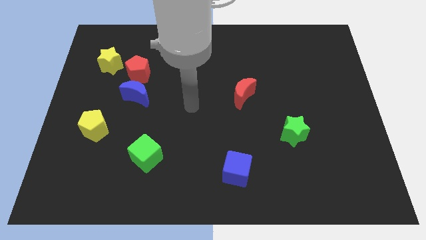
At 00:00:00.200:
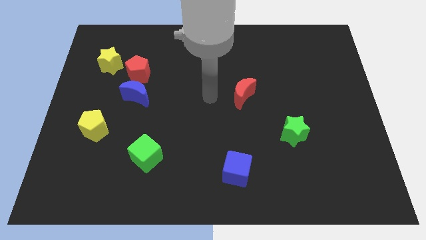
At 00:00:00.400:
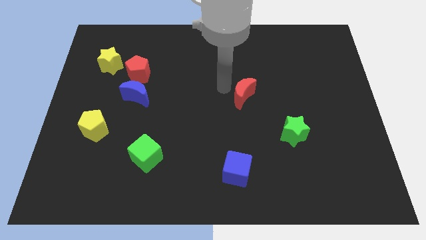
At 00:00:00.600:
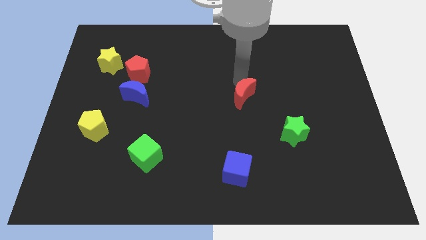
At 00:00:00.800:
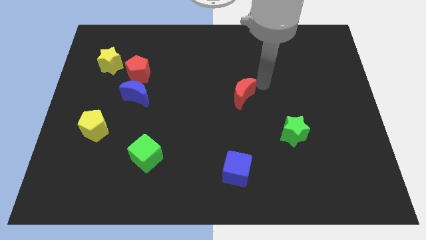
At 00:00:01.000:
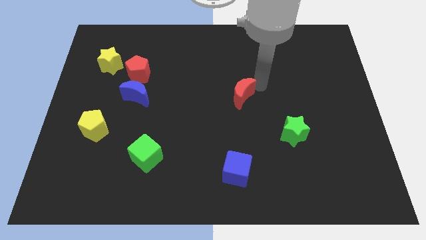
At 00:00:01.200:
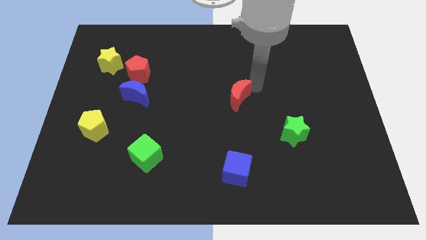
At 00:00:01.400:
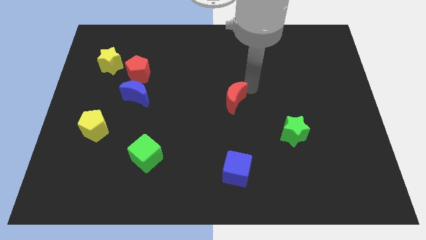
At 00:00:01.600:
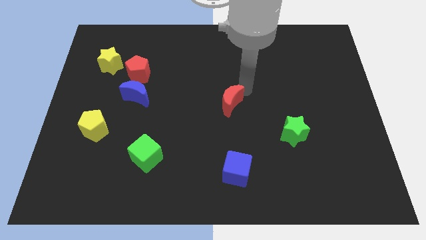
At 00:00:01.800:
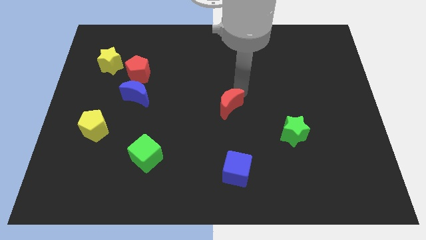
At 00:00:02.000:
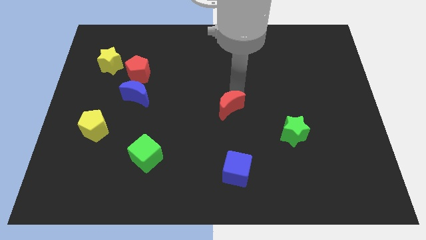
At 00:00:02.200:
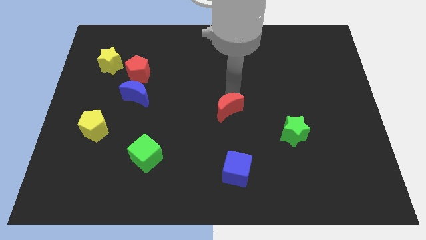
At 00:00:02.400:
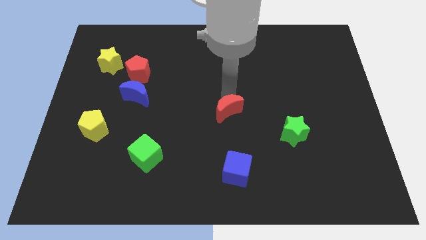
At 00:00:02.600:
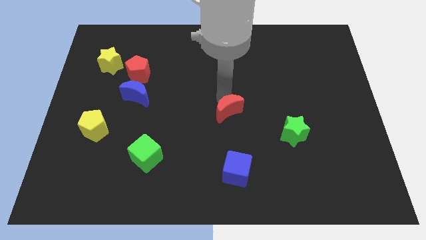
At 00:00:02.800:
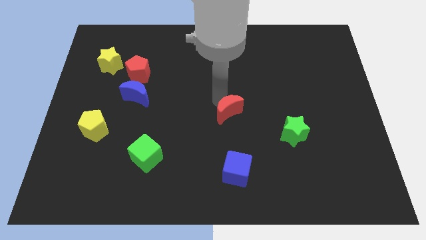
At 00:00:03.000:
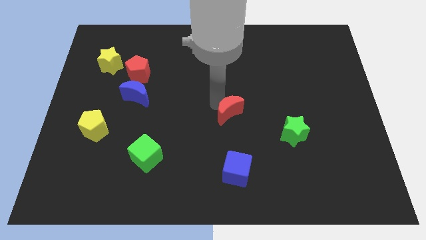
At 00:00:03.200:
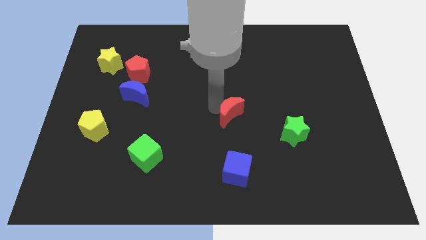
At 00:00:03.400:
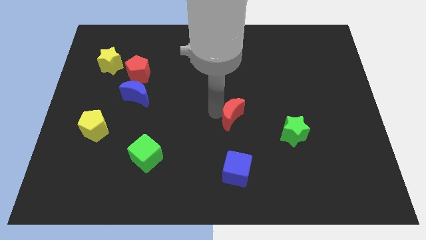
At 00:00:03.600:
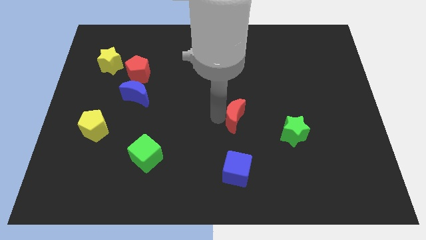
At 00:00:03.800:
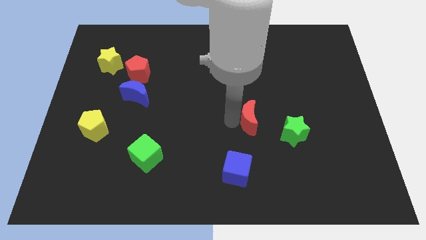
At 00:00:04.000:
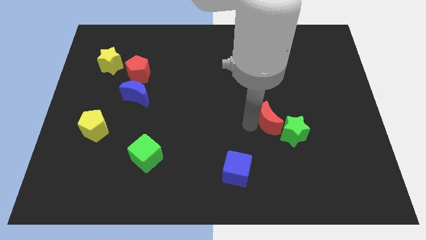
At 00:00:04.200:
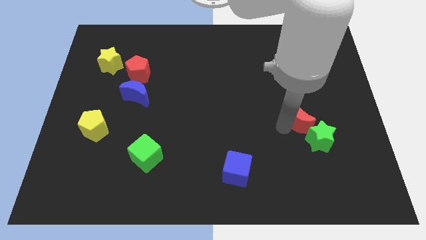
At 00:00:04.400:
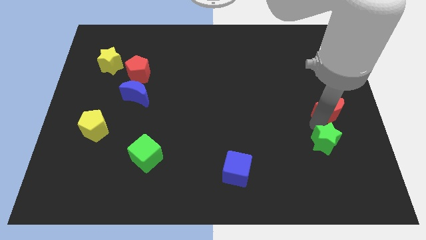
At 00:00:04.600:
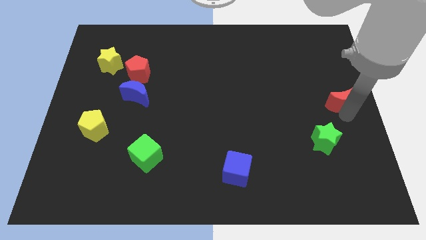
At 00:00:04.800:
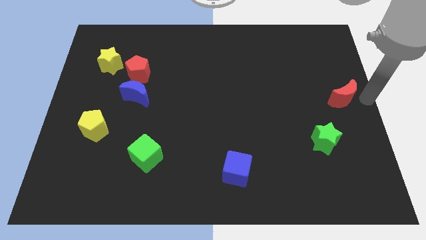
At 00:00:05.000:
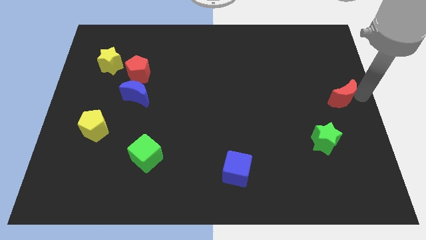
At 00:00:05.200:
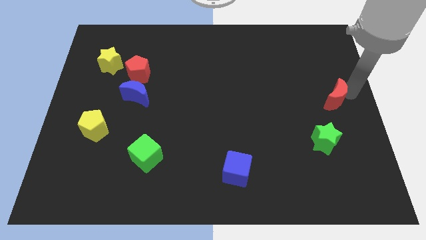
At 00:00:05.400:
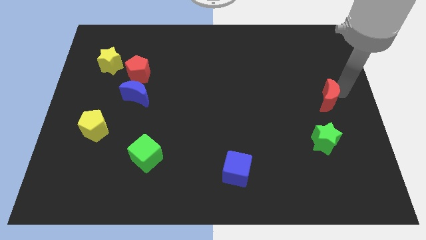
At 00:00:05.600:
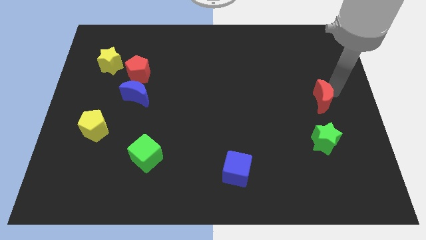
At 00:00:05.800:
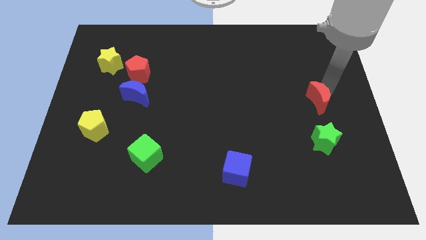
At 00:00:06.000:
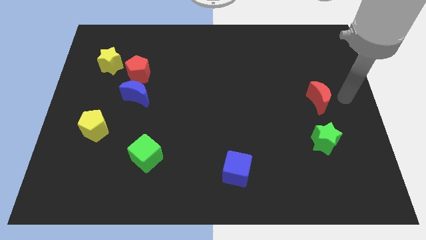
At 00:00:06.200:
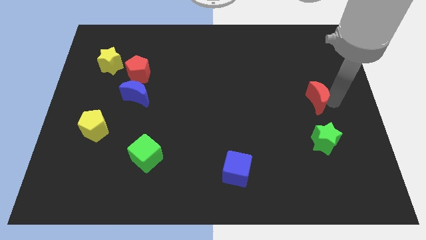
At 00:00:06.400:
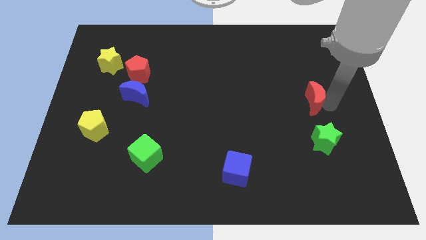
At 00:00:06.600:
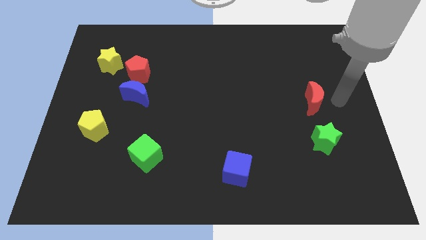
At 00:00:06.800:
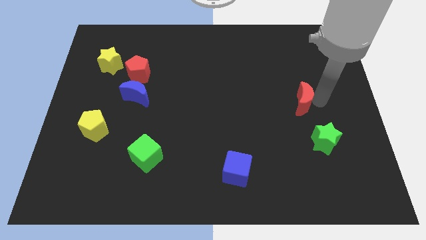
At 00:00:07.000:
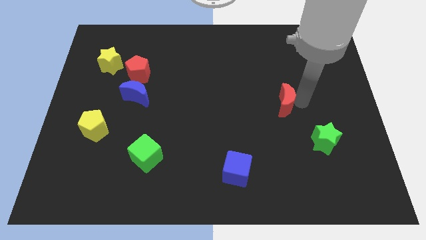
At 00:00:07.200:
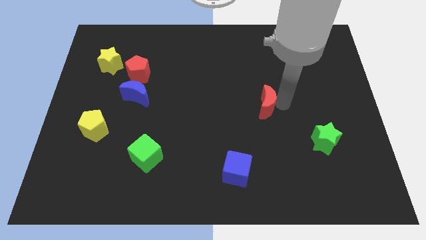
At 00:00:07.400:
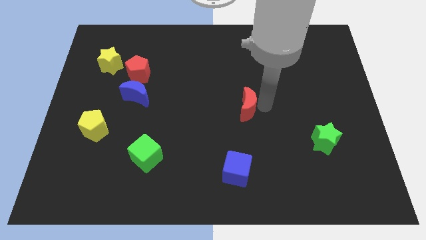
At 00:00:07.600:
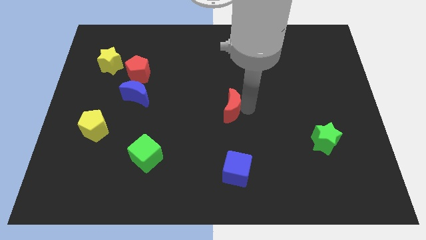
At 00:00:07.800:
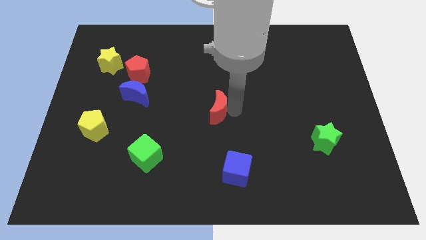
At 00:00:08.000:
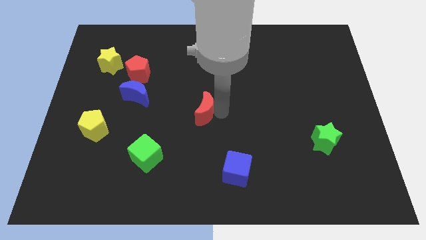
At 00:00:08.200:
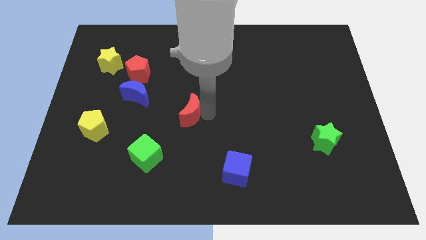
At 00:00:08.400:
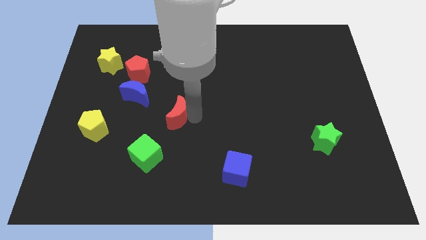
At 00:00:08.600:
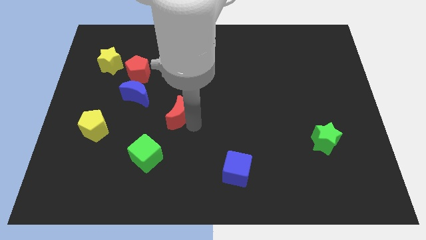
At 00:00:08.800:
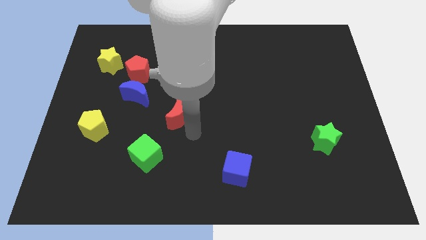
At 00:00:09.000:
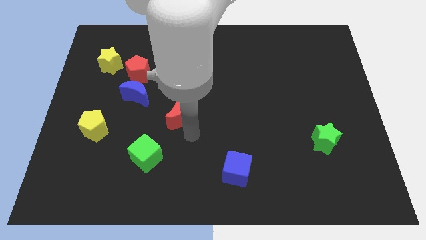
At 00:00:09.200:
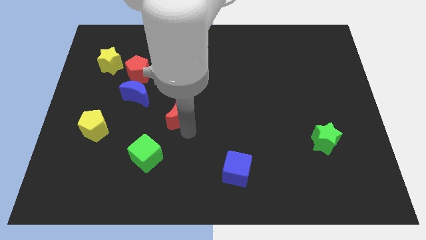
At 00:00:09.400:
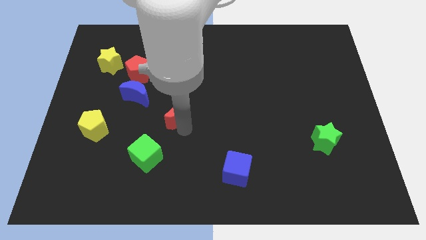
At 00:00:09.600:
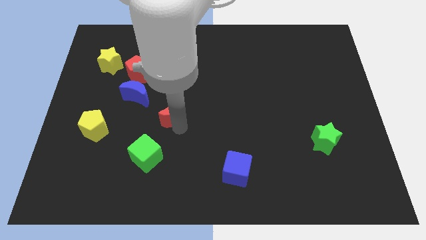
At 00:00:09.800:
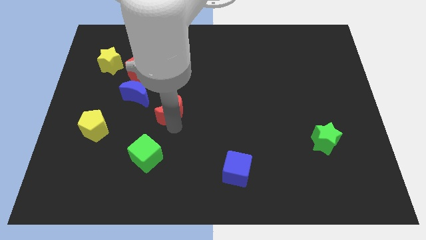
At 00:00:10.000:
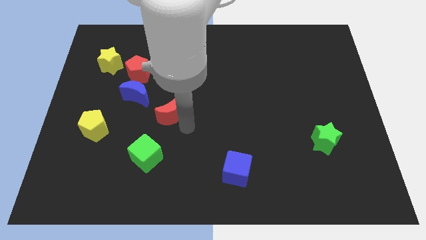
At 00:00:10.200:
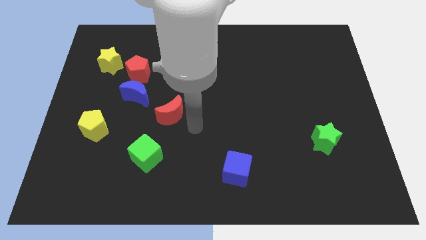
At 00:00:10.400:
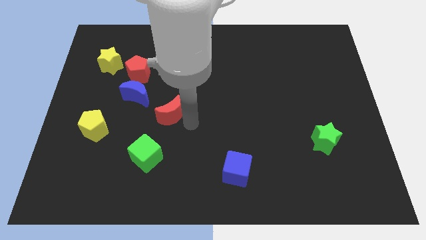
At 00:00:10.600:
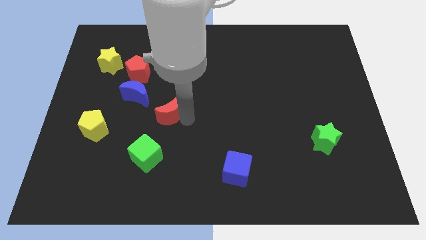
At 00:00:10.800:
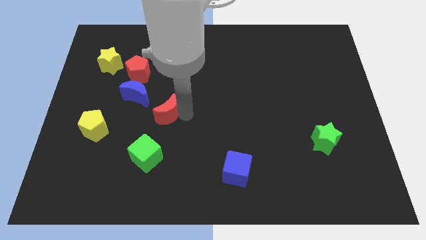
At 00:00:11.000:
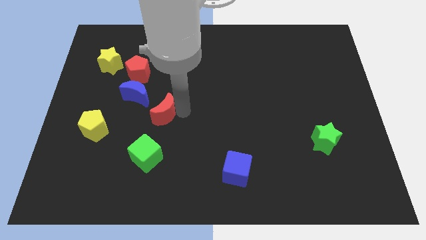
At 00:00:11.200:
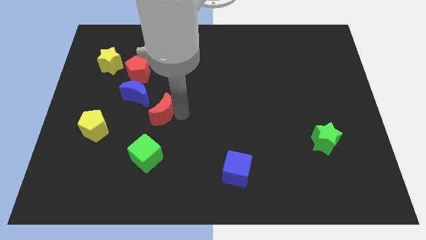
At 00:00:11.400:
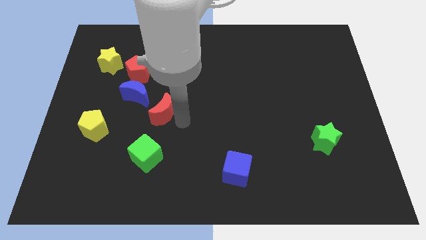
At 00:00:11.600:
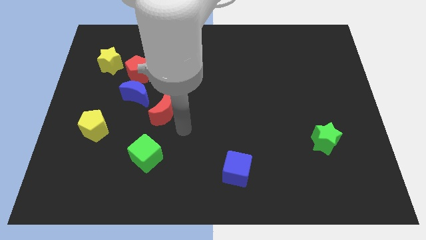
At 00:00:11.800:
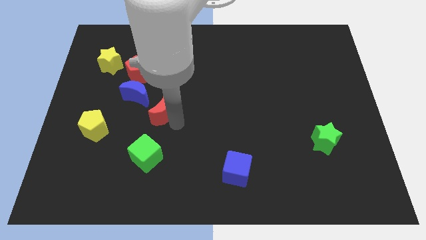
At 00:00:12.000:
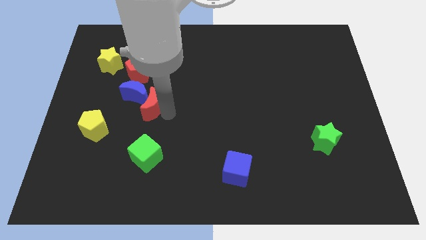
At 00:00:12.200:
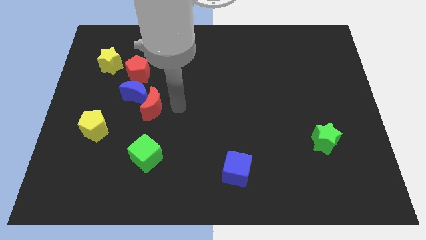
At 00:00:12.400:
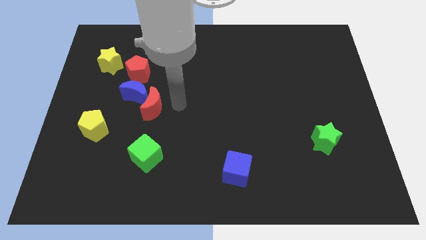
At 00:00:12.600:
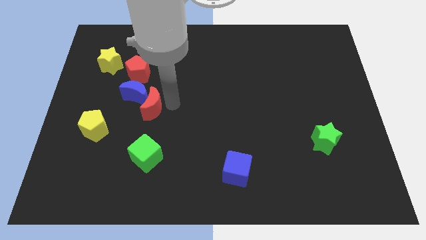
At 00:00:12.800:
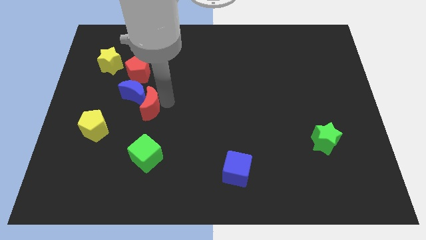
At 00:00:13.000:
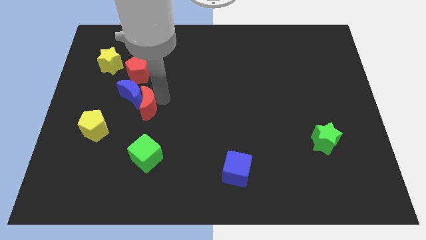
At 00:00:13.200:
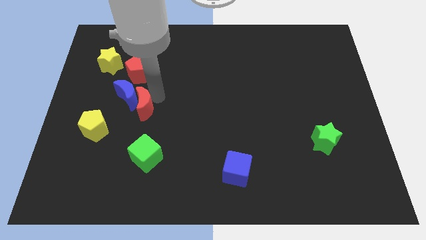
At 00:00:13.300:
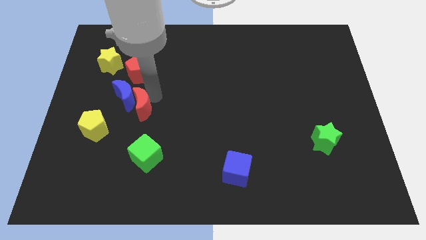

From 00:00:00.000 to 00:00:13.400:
push the red moon diagonally up and to the right of the yellow pentagon

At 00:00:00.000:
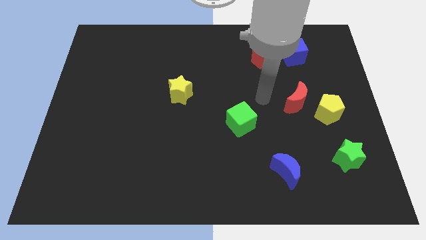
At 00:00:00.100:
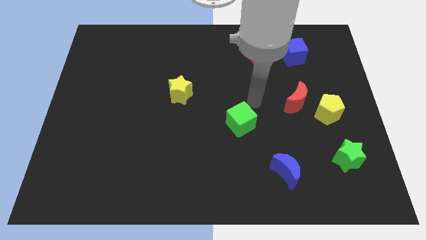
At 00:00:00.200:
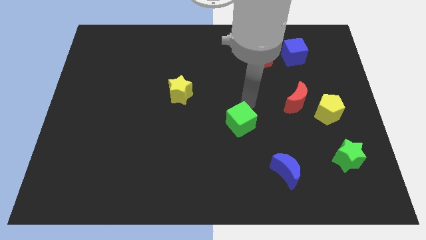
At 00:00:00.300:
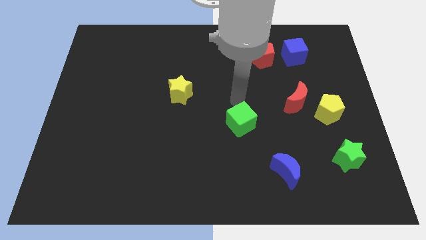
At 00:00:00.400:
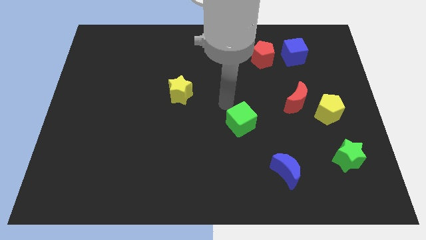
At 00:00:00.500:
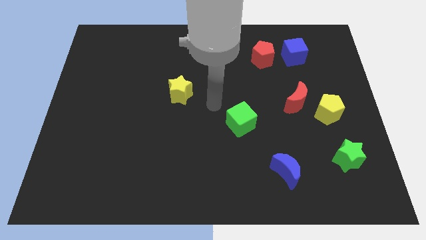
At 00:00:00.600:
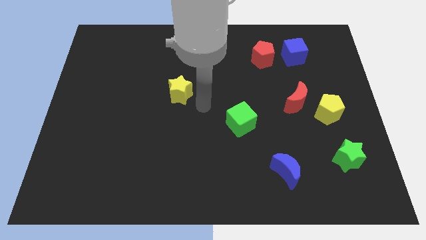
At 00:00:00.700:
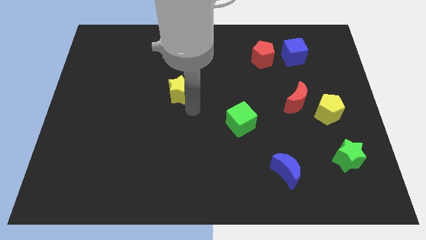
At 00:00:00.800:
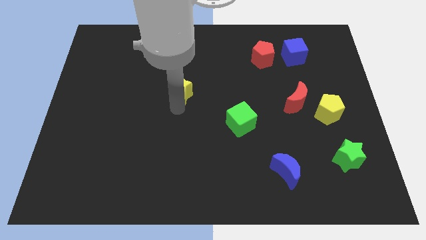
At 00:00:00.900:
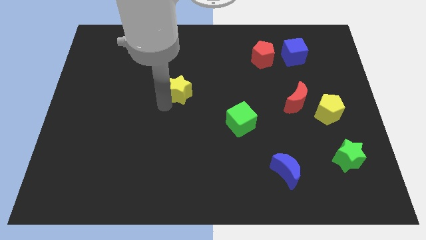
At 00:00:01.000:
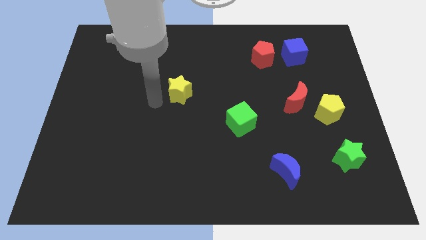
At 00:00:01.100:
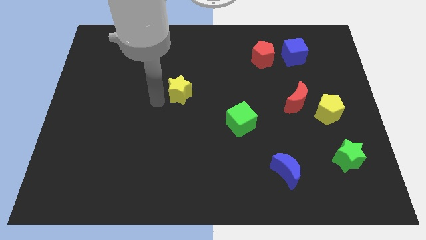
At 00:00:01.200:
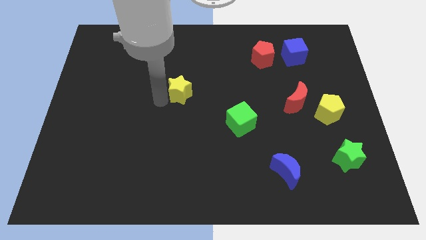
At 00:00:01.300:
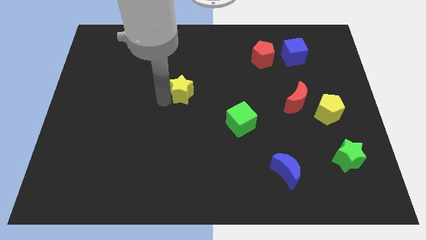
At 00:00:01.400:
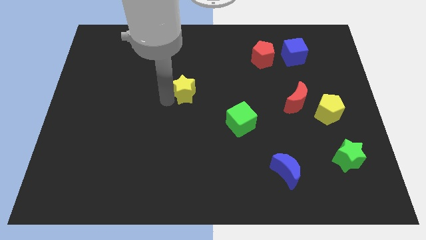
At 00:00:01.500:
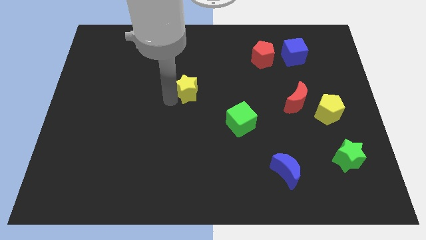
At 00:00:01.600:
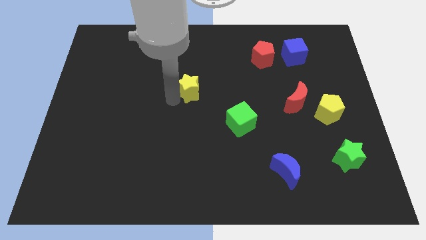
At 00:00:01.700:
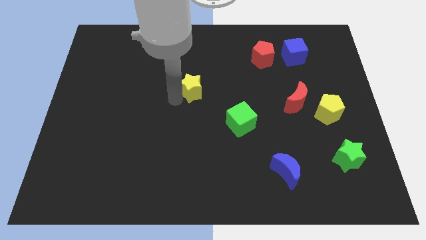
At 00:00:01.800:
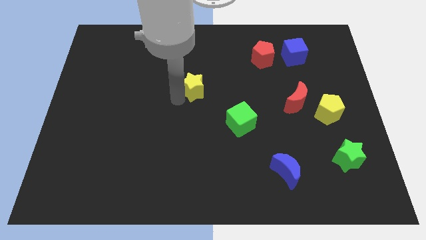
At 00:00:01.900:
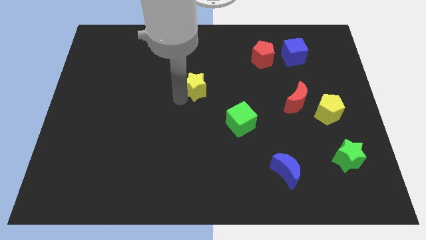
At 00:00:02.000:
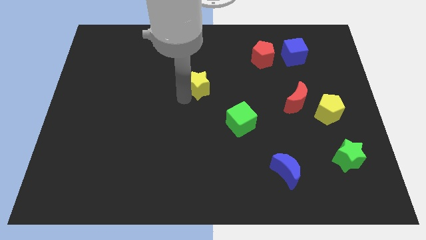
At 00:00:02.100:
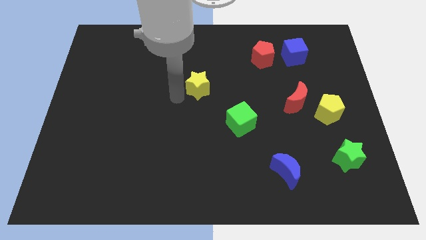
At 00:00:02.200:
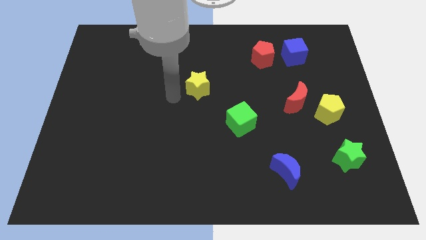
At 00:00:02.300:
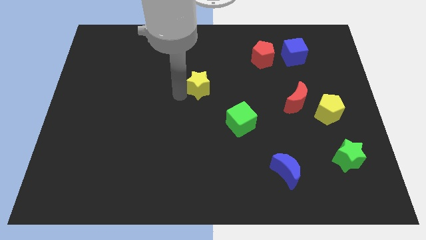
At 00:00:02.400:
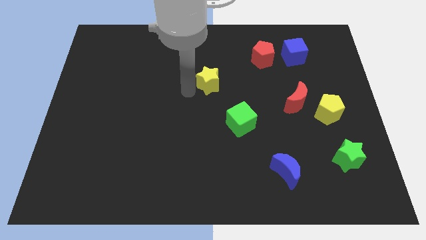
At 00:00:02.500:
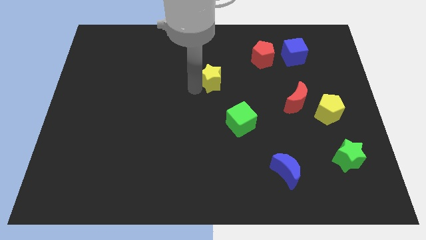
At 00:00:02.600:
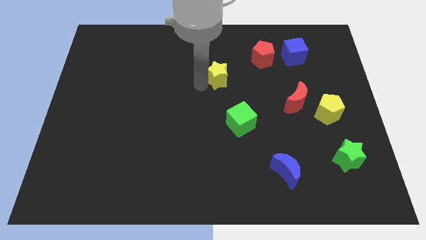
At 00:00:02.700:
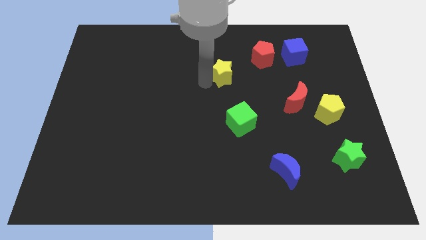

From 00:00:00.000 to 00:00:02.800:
push the yellow star to the bottom left side of the red pentagon
